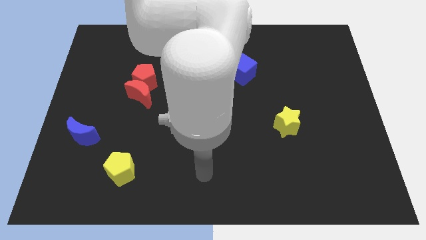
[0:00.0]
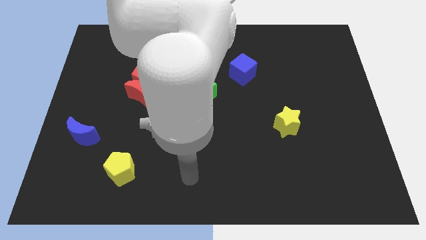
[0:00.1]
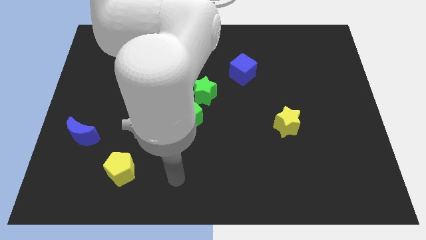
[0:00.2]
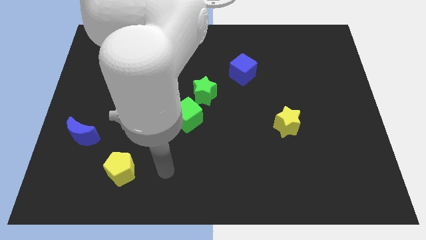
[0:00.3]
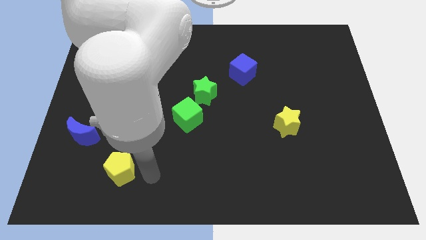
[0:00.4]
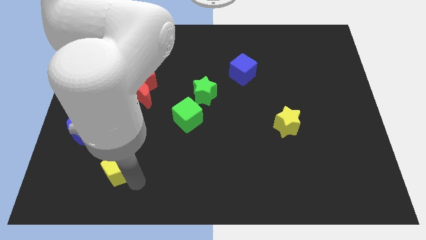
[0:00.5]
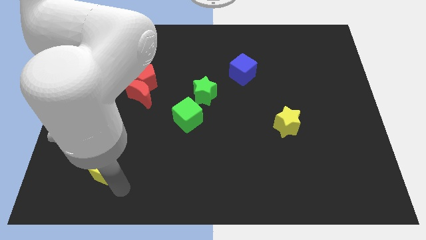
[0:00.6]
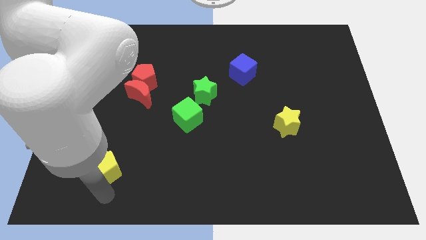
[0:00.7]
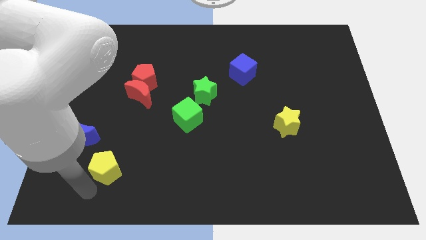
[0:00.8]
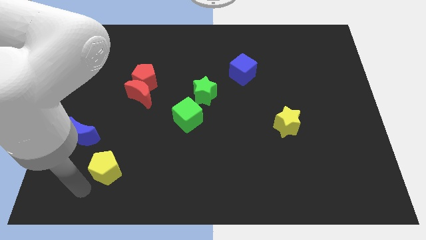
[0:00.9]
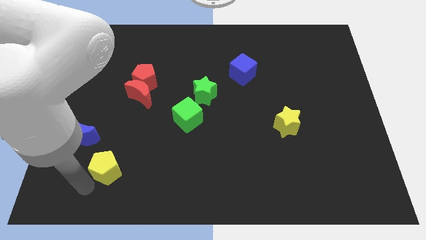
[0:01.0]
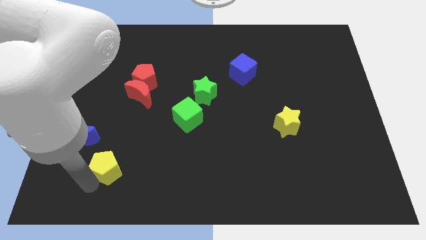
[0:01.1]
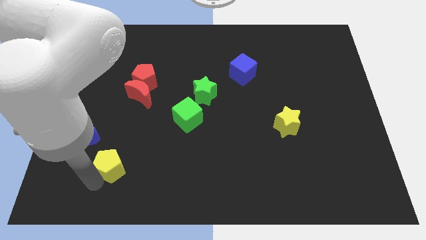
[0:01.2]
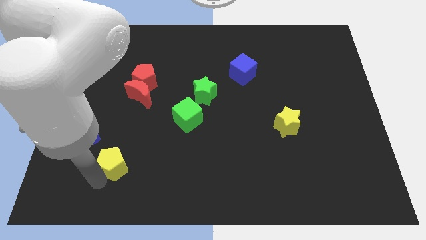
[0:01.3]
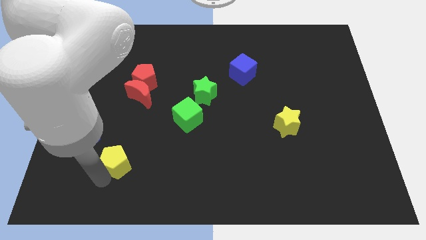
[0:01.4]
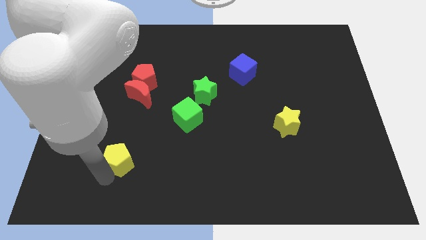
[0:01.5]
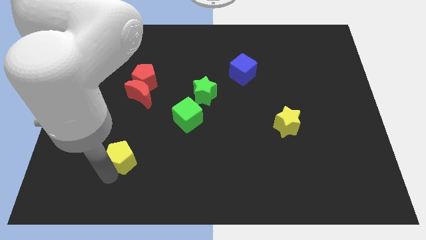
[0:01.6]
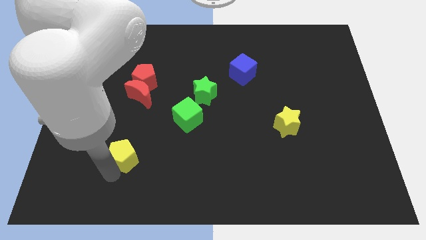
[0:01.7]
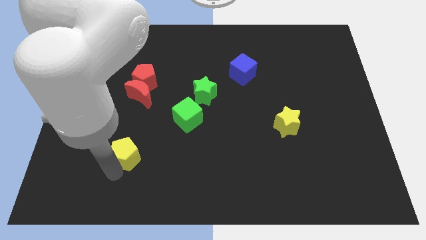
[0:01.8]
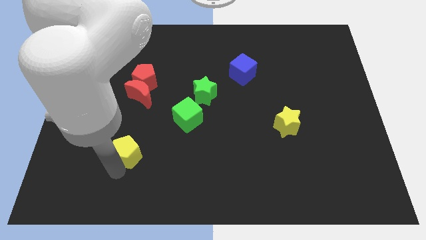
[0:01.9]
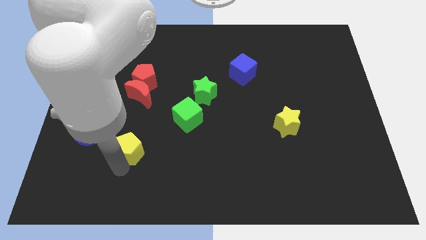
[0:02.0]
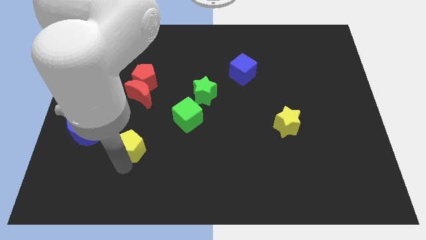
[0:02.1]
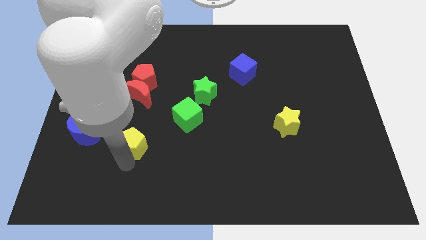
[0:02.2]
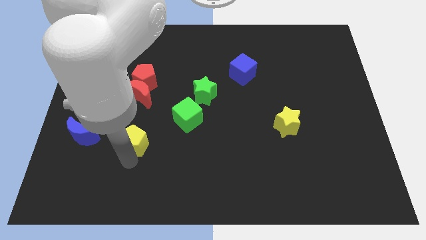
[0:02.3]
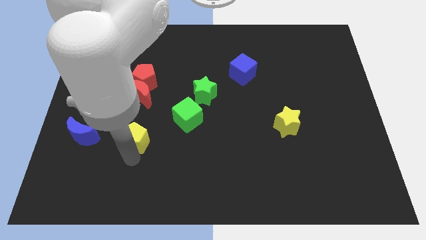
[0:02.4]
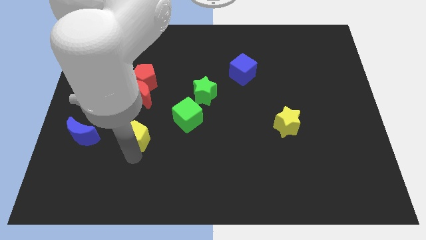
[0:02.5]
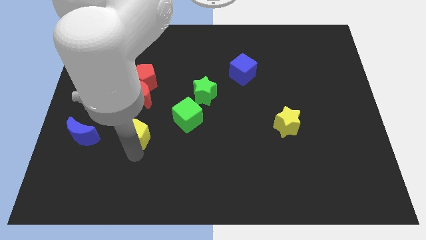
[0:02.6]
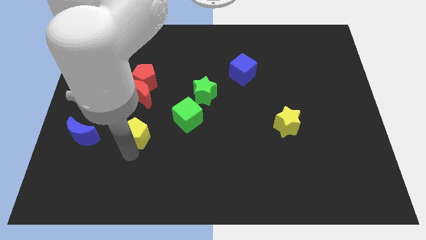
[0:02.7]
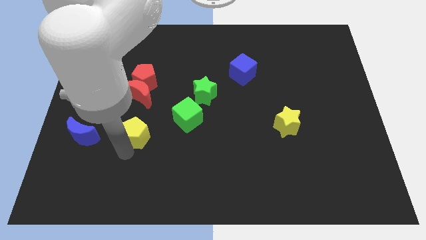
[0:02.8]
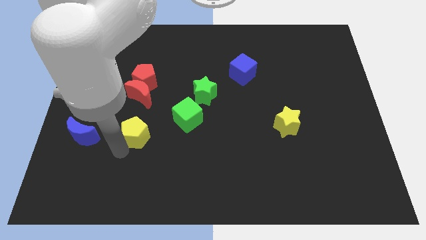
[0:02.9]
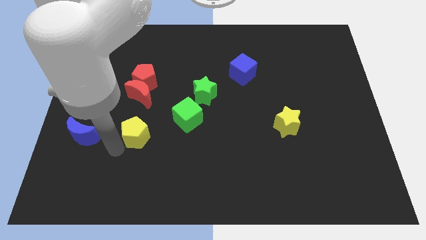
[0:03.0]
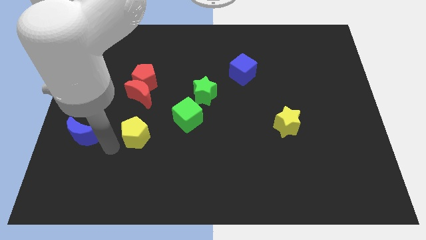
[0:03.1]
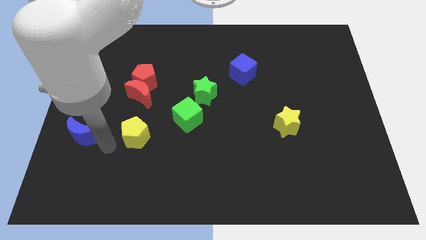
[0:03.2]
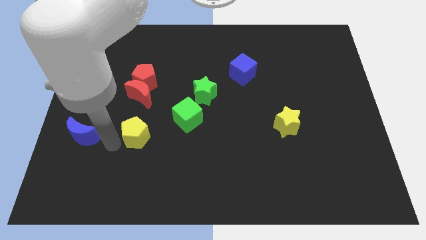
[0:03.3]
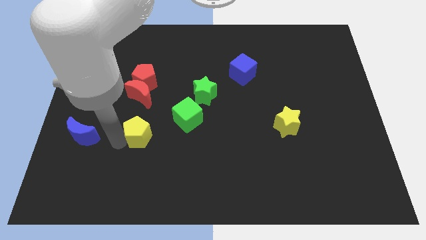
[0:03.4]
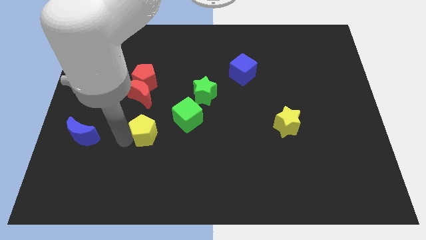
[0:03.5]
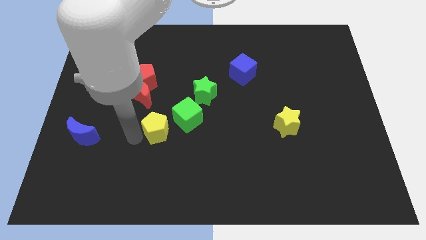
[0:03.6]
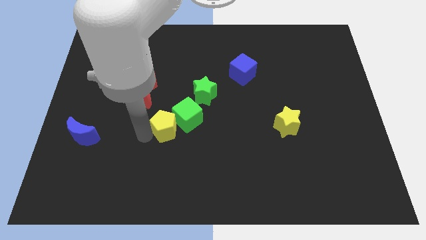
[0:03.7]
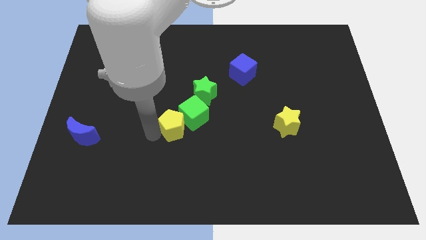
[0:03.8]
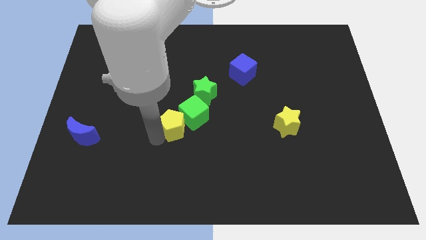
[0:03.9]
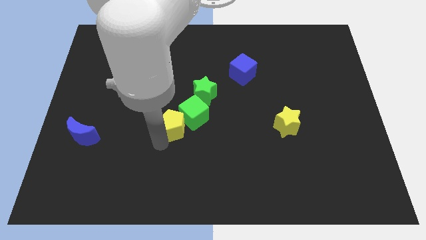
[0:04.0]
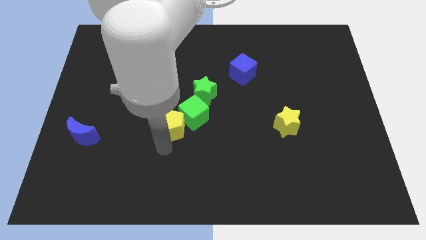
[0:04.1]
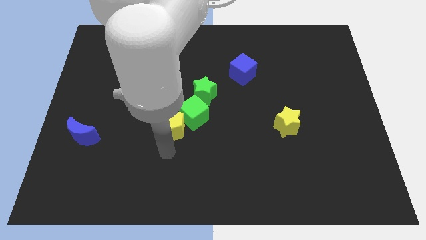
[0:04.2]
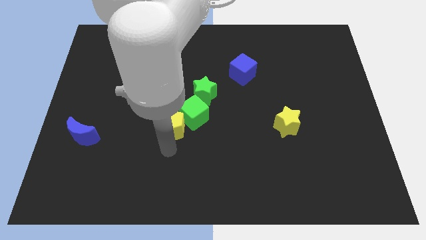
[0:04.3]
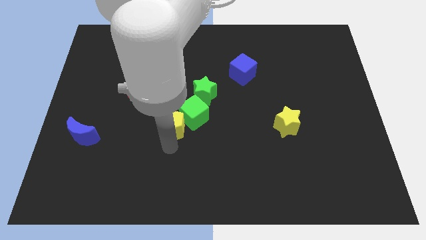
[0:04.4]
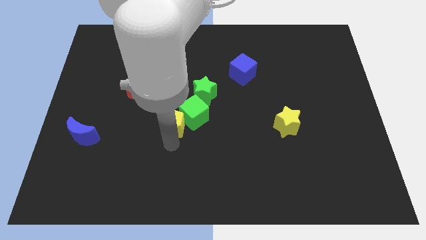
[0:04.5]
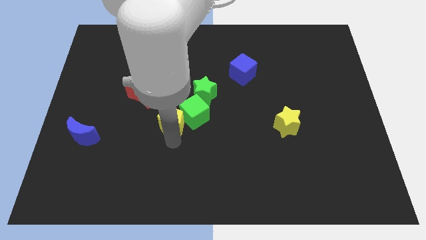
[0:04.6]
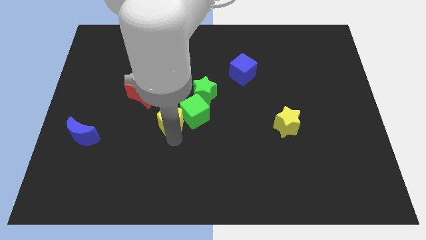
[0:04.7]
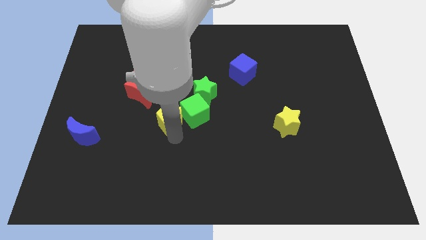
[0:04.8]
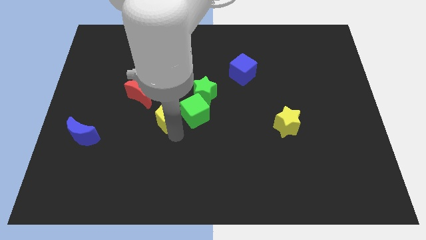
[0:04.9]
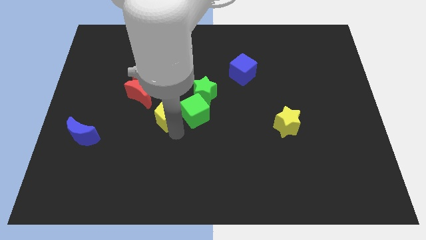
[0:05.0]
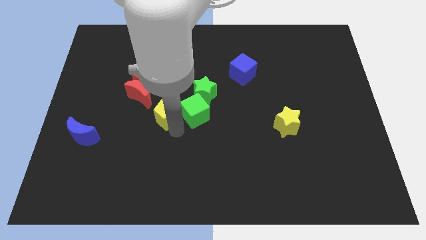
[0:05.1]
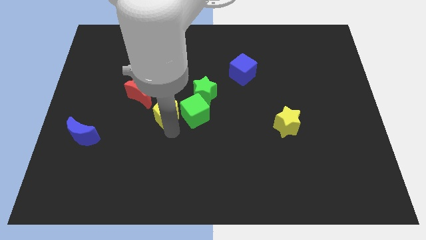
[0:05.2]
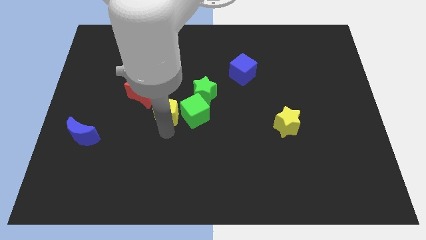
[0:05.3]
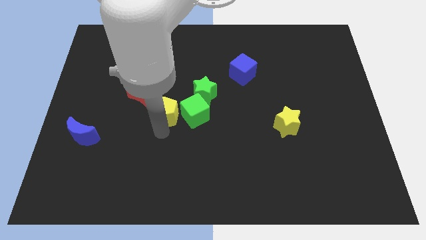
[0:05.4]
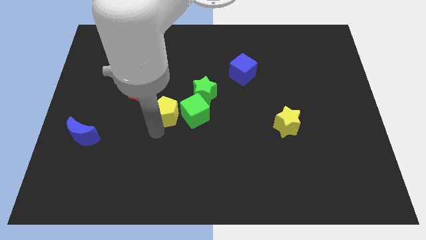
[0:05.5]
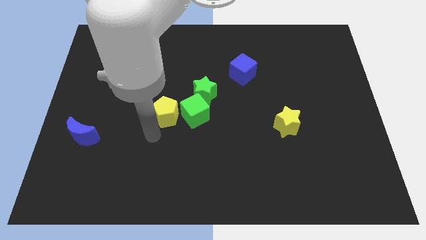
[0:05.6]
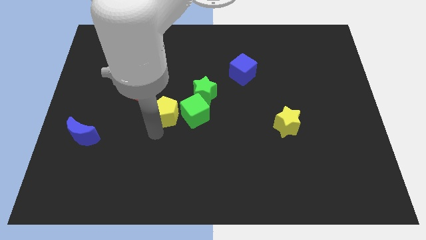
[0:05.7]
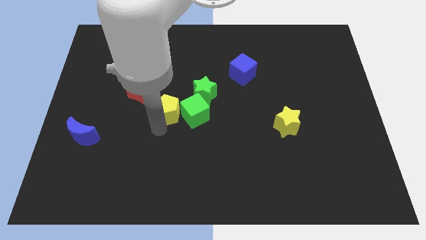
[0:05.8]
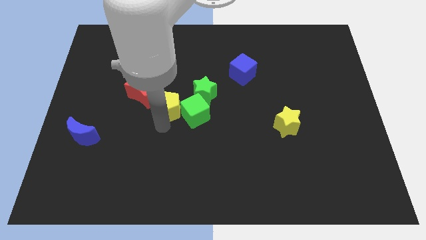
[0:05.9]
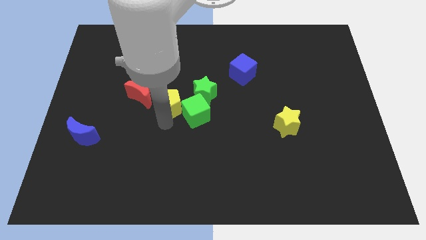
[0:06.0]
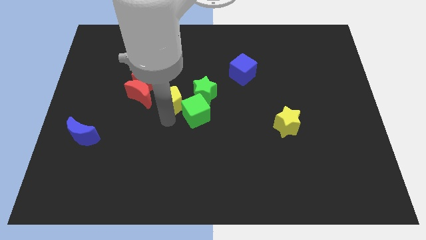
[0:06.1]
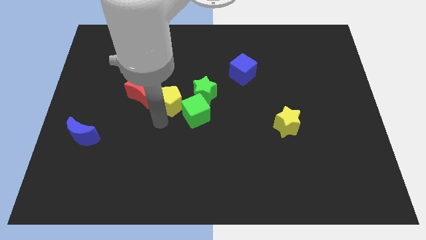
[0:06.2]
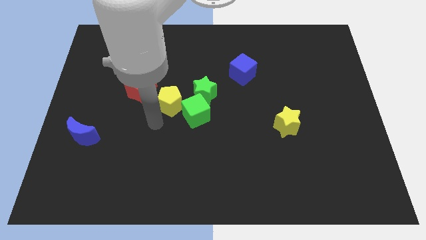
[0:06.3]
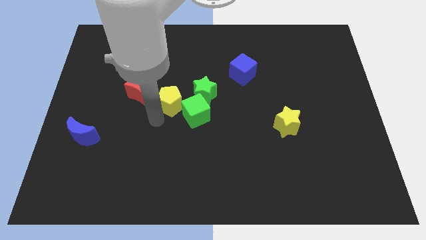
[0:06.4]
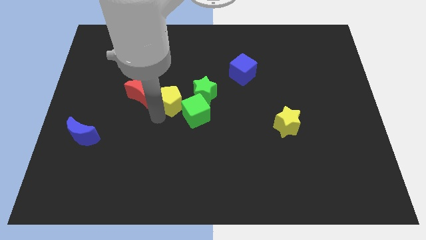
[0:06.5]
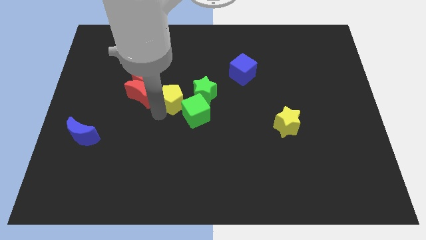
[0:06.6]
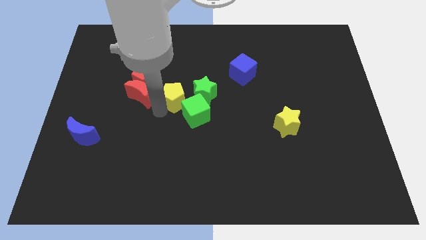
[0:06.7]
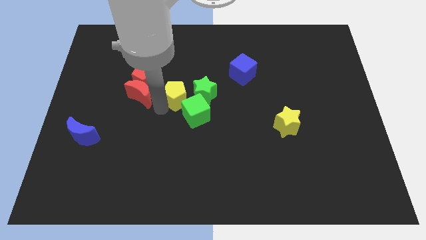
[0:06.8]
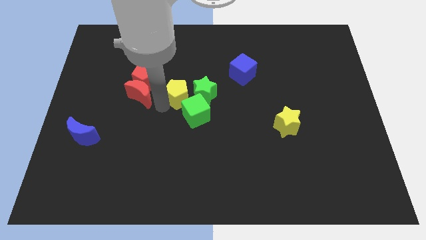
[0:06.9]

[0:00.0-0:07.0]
slide the yellow pentagon just right of the red pentagon

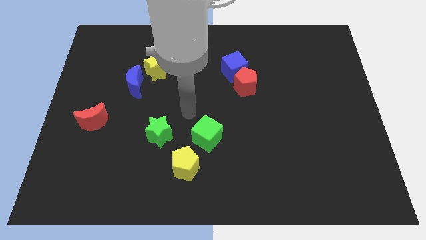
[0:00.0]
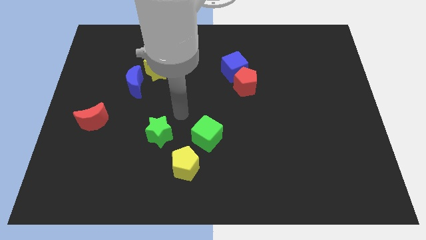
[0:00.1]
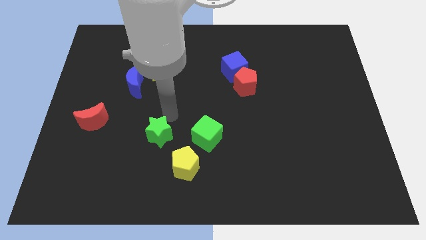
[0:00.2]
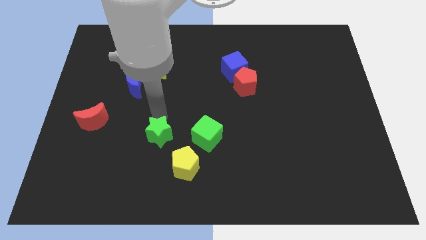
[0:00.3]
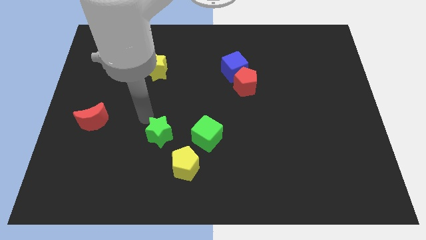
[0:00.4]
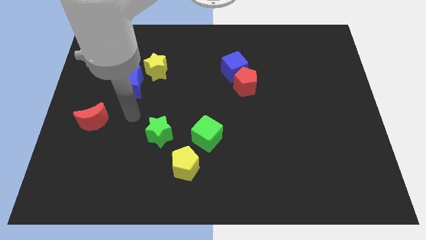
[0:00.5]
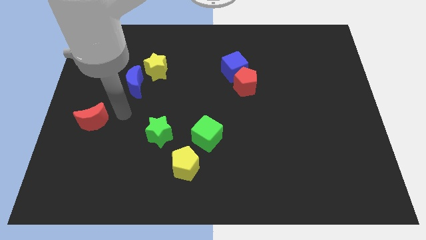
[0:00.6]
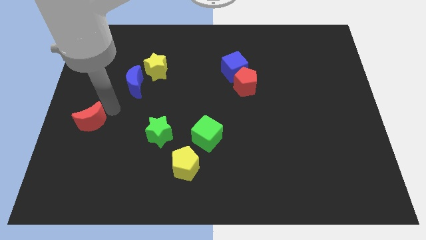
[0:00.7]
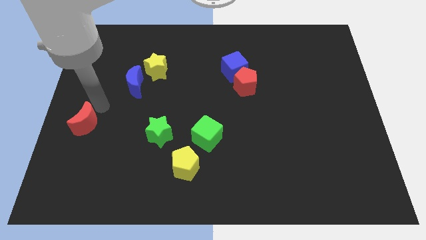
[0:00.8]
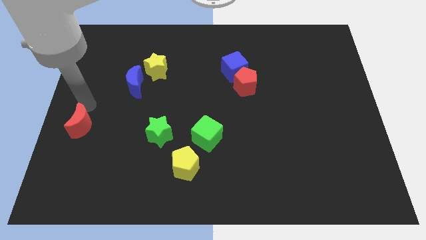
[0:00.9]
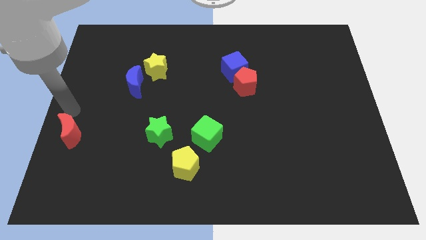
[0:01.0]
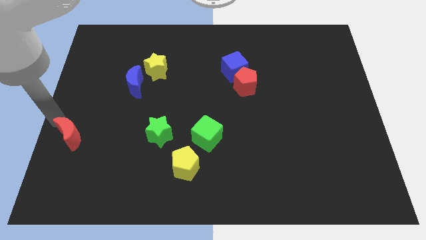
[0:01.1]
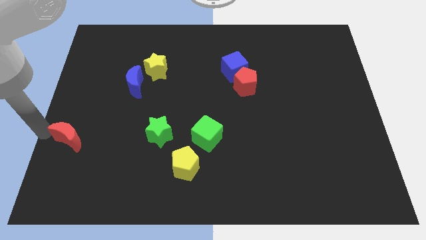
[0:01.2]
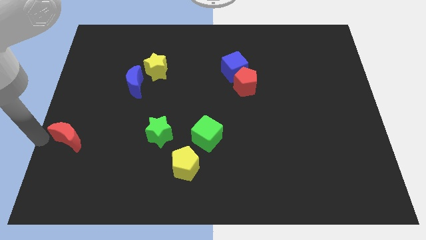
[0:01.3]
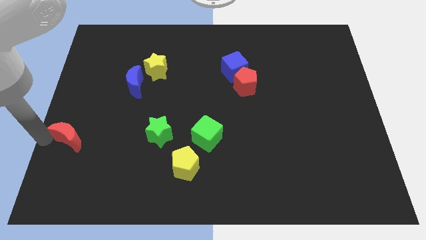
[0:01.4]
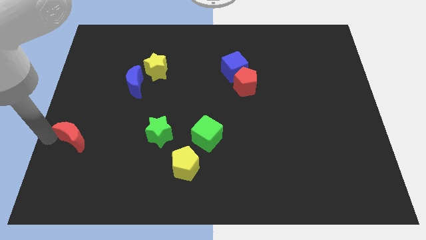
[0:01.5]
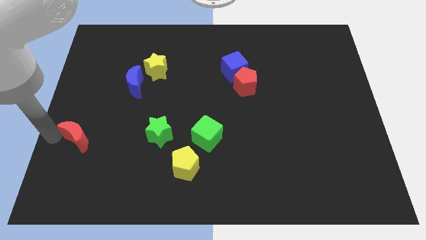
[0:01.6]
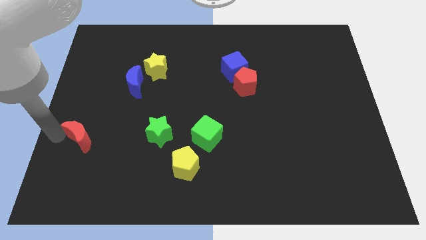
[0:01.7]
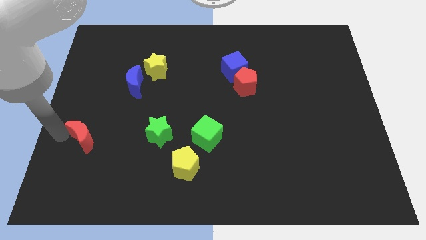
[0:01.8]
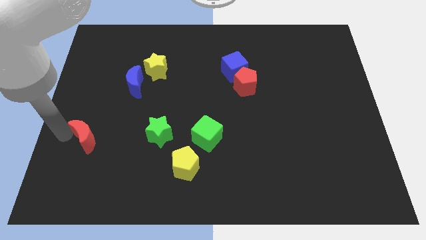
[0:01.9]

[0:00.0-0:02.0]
put the red moon to the left side of the green star
